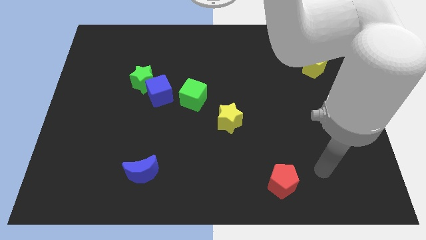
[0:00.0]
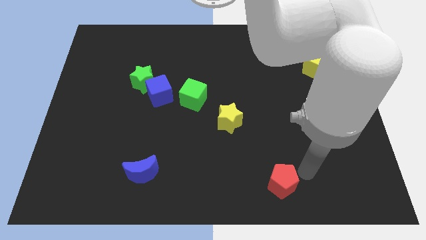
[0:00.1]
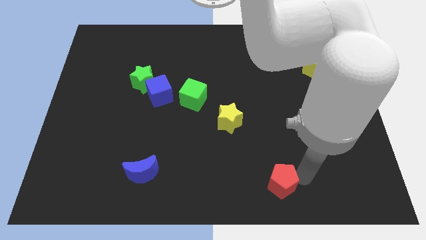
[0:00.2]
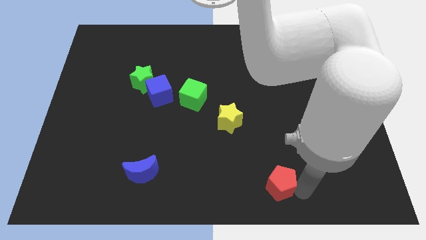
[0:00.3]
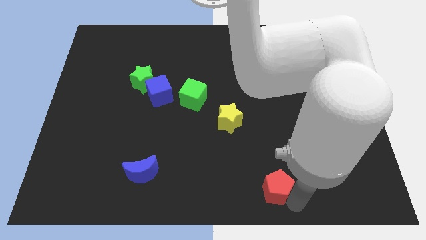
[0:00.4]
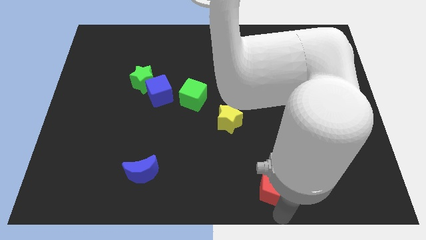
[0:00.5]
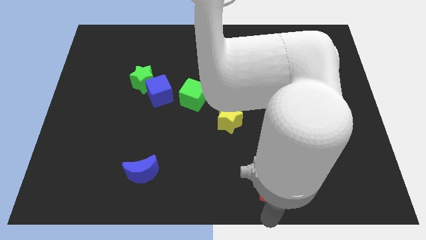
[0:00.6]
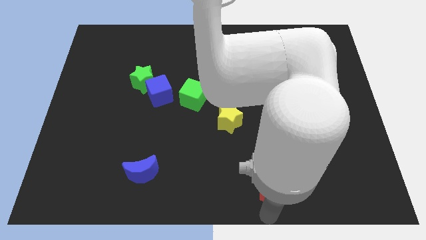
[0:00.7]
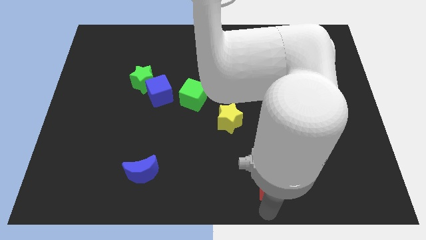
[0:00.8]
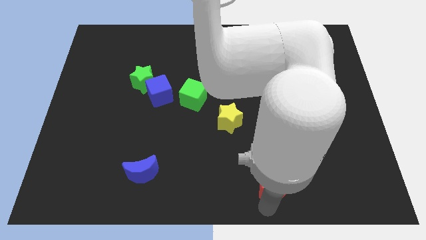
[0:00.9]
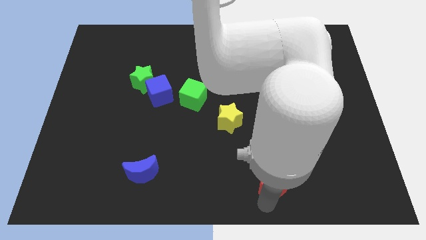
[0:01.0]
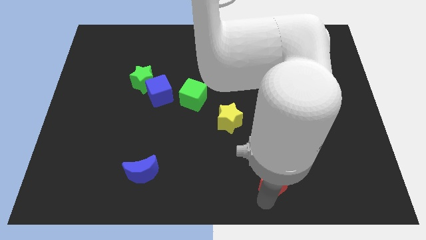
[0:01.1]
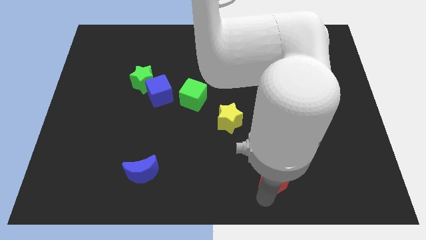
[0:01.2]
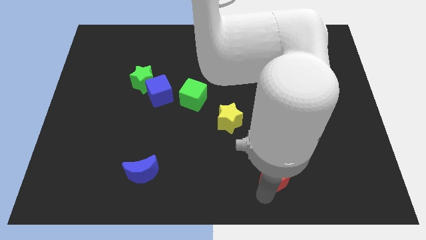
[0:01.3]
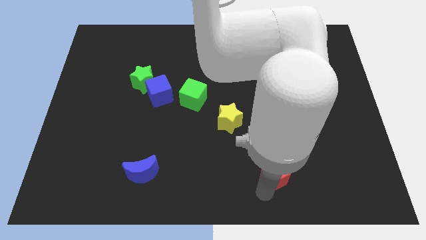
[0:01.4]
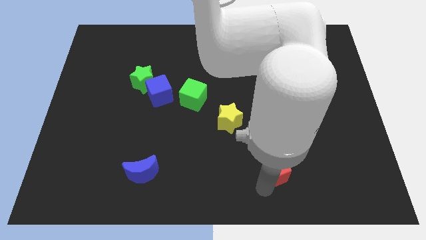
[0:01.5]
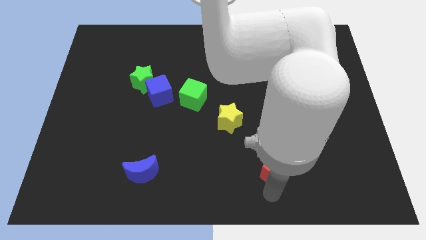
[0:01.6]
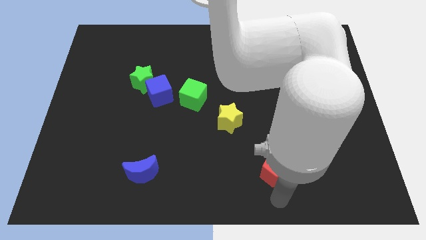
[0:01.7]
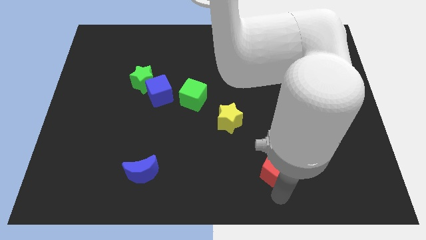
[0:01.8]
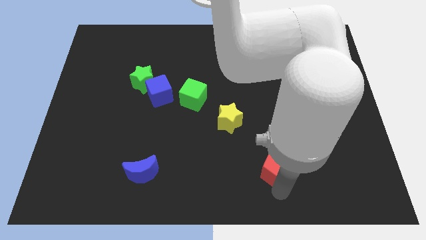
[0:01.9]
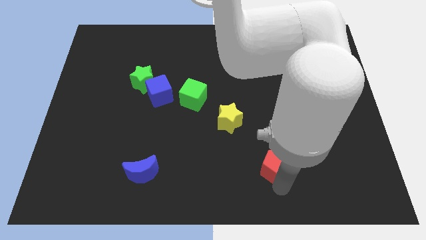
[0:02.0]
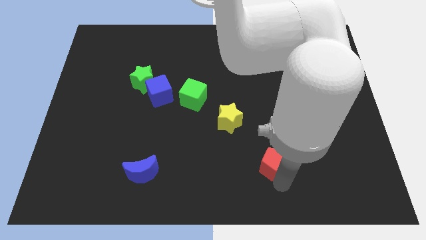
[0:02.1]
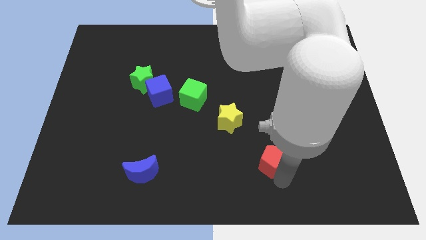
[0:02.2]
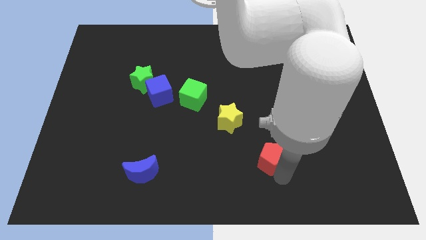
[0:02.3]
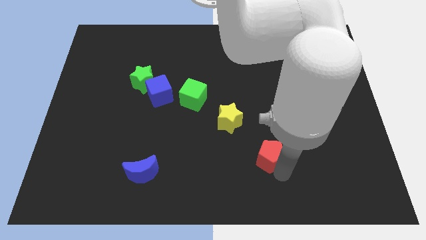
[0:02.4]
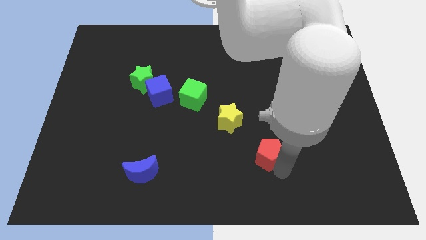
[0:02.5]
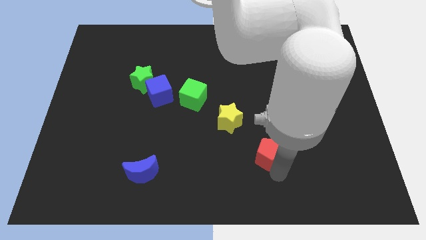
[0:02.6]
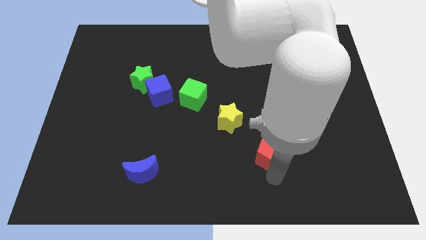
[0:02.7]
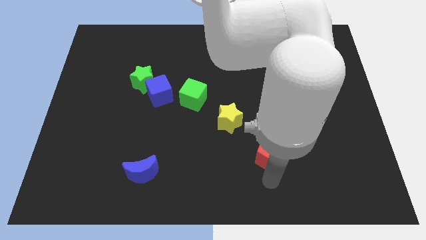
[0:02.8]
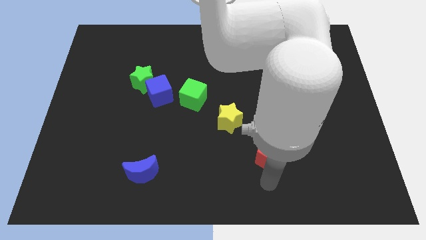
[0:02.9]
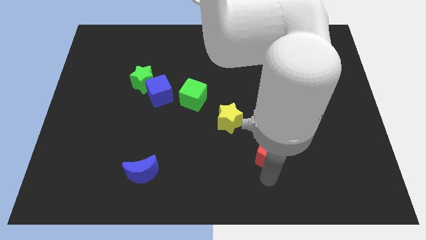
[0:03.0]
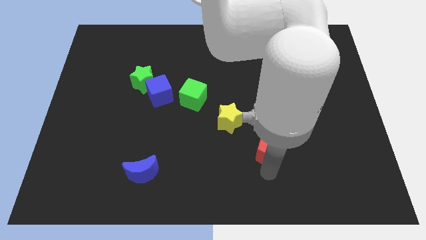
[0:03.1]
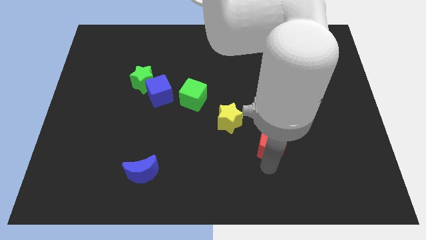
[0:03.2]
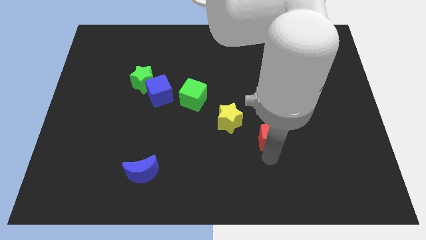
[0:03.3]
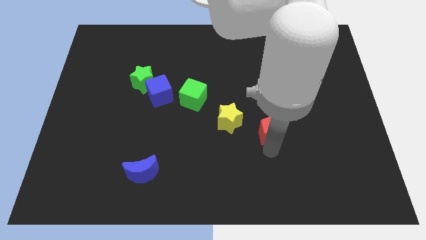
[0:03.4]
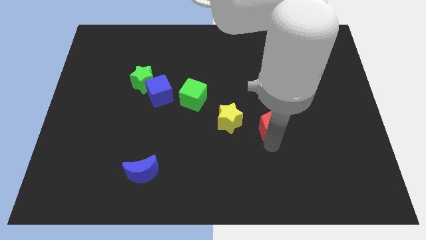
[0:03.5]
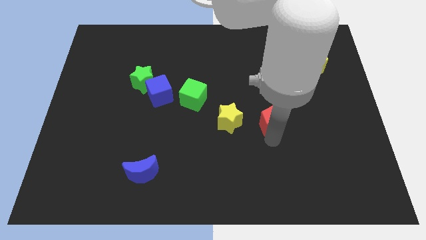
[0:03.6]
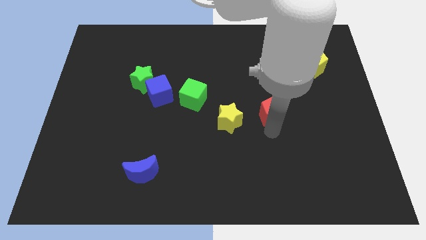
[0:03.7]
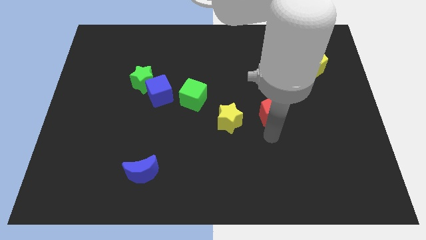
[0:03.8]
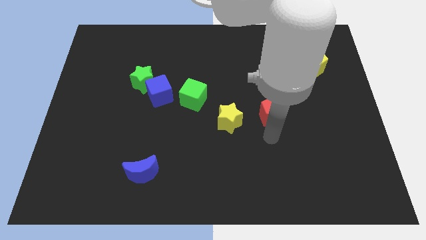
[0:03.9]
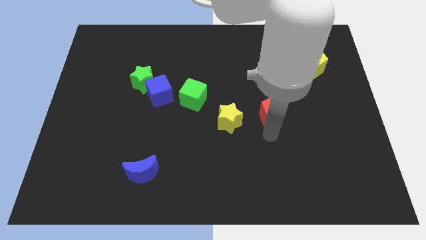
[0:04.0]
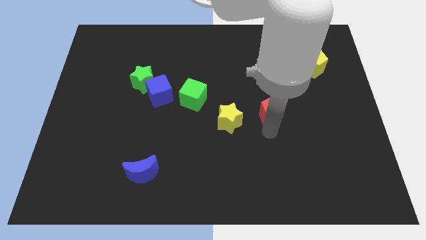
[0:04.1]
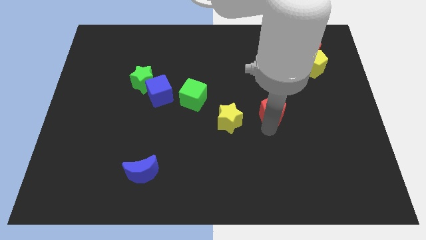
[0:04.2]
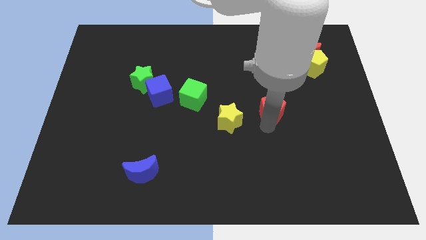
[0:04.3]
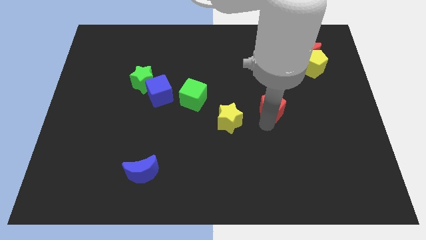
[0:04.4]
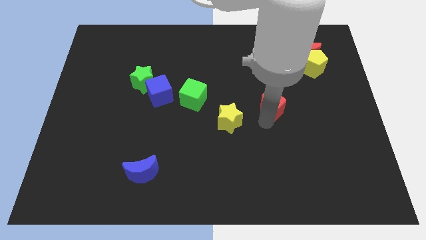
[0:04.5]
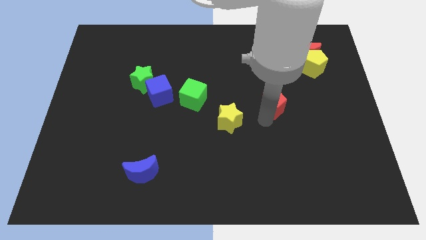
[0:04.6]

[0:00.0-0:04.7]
push the red pentagon upwards

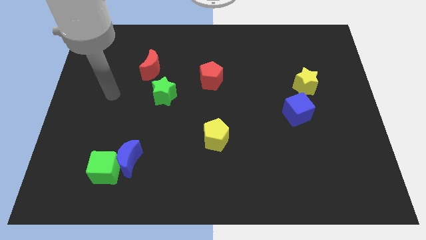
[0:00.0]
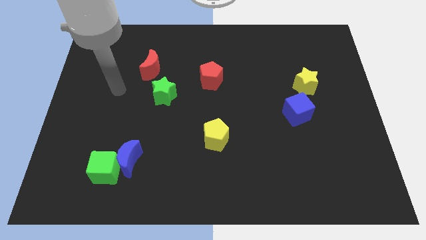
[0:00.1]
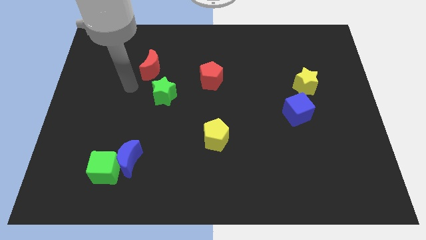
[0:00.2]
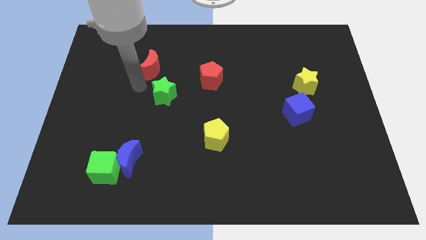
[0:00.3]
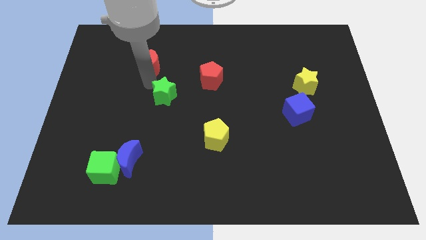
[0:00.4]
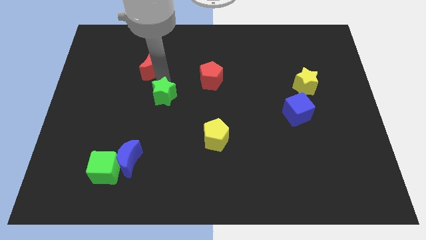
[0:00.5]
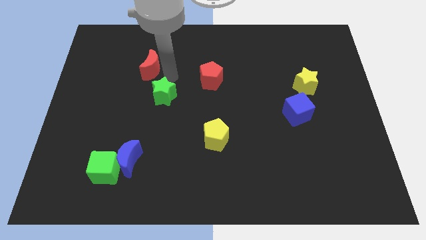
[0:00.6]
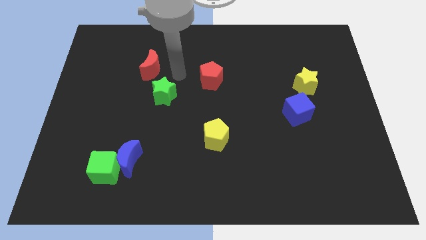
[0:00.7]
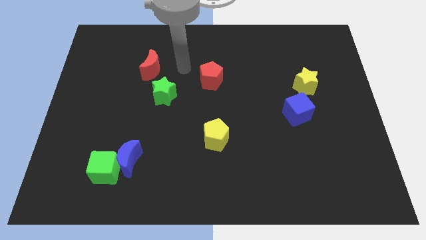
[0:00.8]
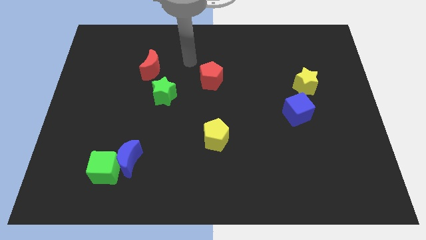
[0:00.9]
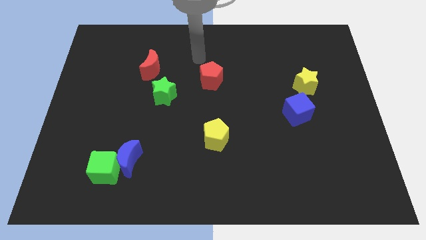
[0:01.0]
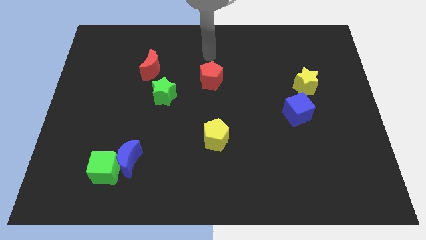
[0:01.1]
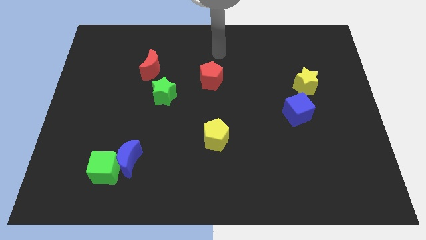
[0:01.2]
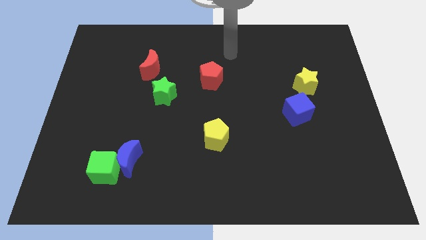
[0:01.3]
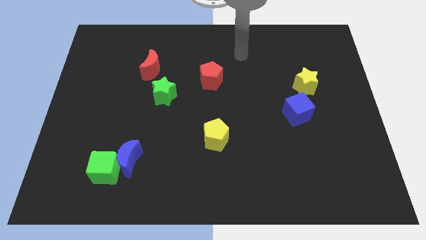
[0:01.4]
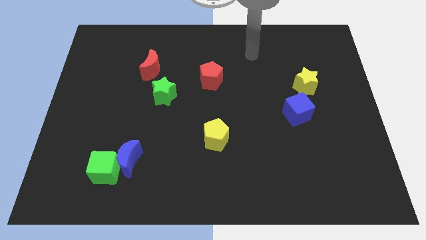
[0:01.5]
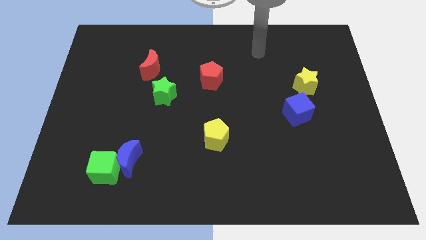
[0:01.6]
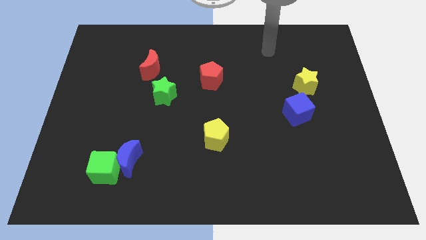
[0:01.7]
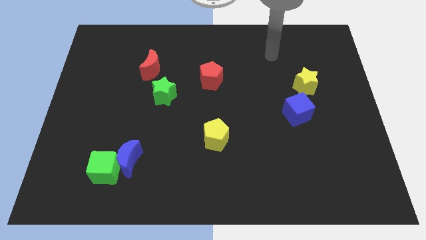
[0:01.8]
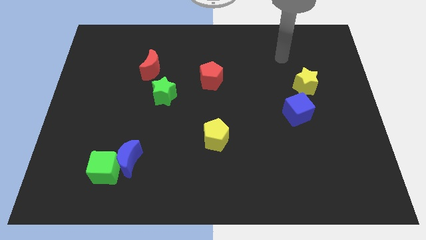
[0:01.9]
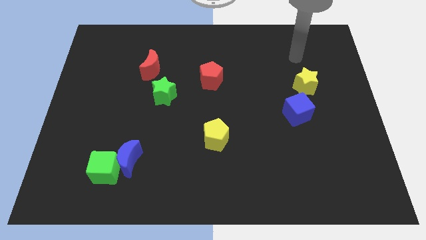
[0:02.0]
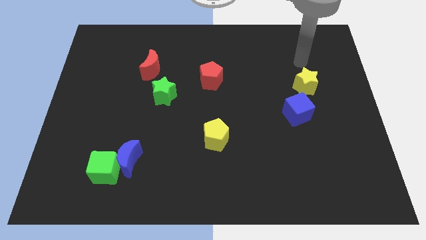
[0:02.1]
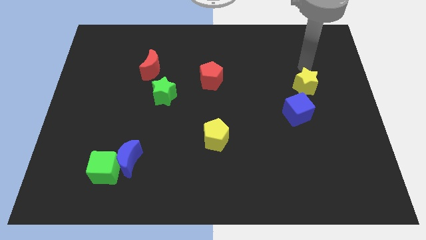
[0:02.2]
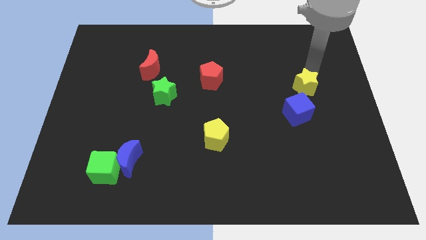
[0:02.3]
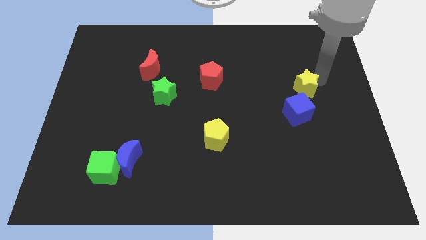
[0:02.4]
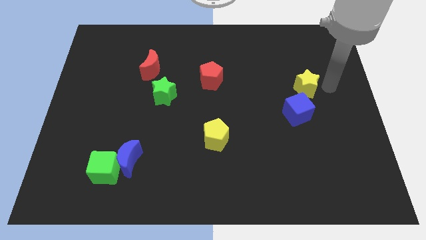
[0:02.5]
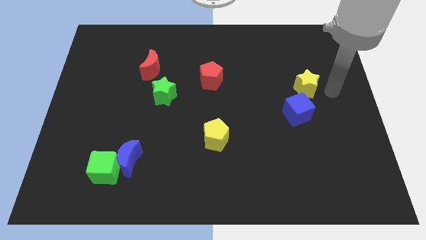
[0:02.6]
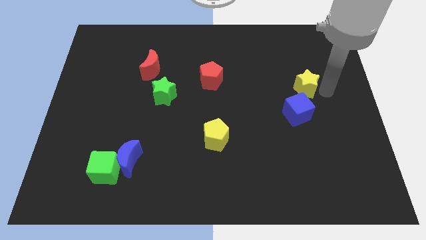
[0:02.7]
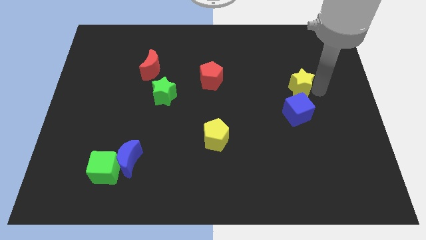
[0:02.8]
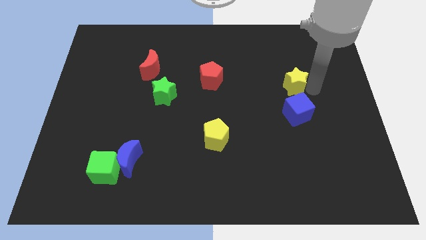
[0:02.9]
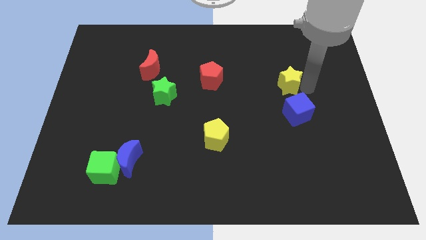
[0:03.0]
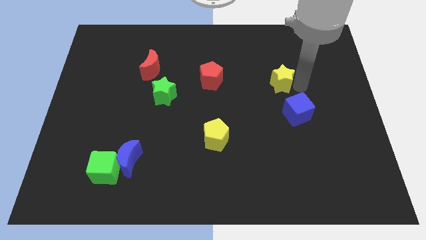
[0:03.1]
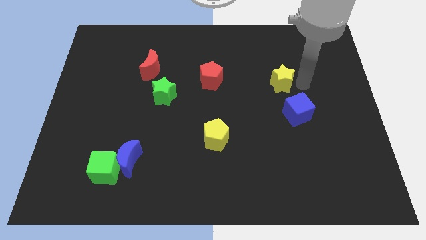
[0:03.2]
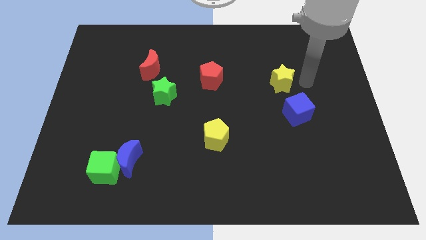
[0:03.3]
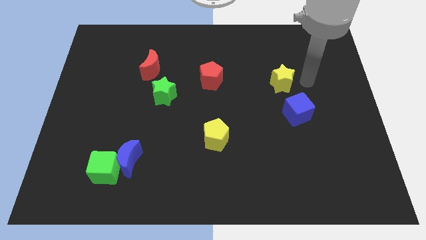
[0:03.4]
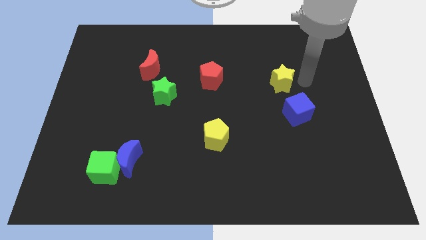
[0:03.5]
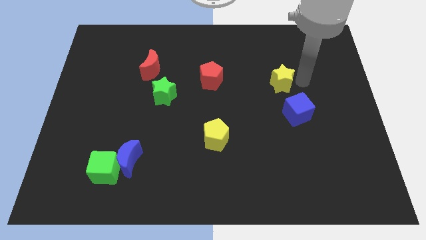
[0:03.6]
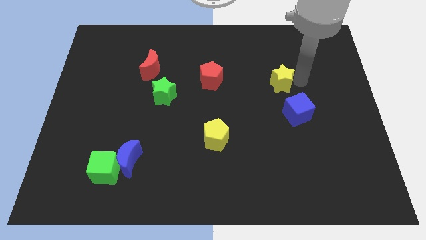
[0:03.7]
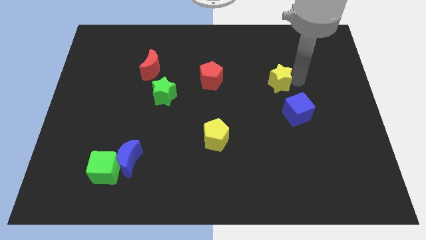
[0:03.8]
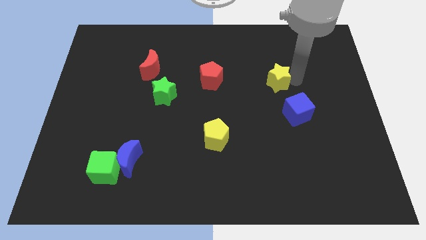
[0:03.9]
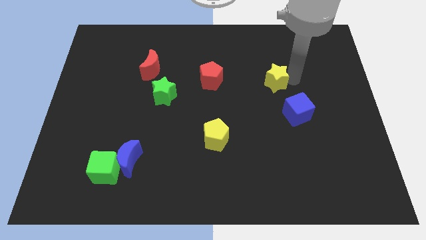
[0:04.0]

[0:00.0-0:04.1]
slightly move the yellow star left
